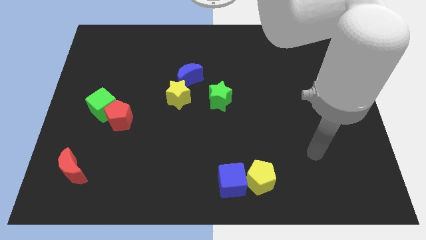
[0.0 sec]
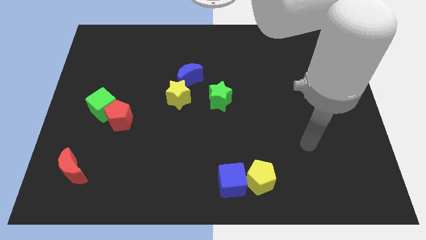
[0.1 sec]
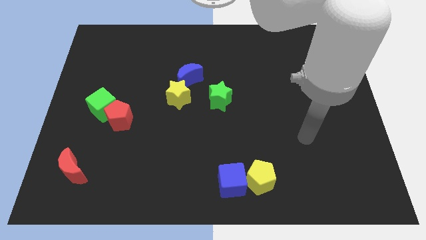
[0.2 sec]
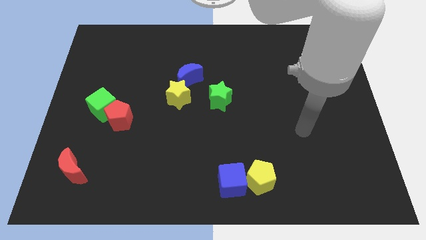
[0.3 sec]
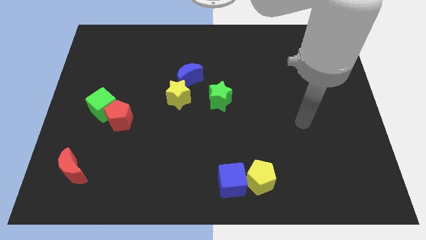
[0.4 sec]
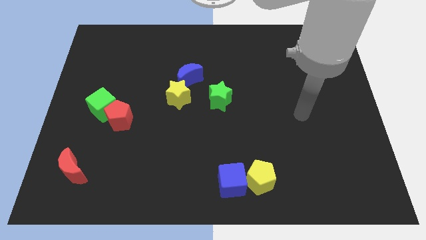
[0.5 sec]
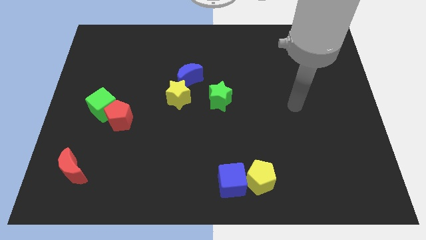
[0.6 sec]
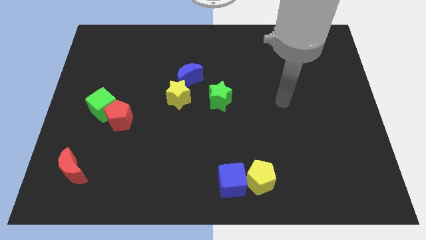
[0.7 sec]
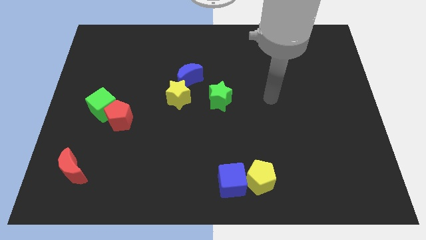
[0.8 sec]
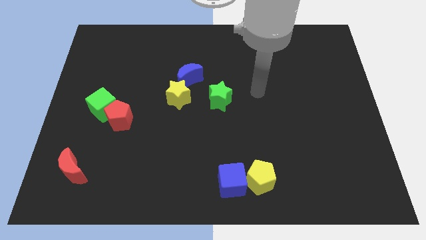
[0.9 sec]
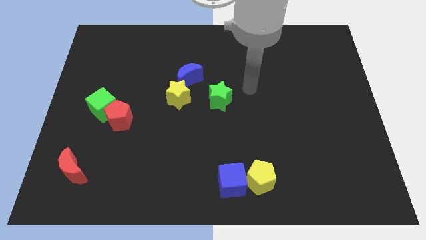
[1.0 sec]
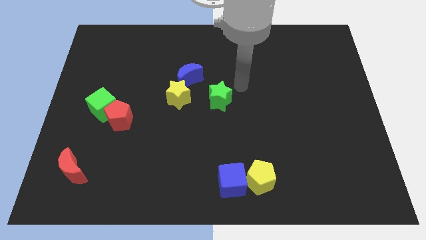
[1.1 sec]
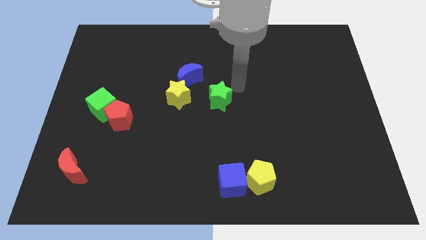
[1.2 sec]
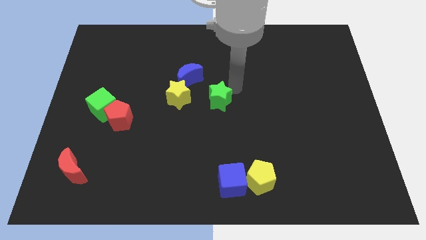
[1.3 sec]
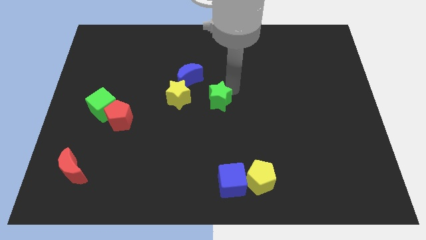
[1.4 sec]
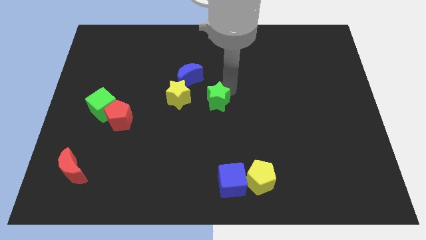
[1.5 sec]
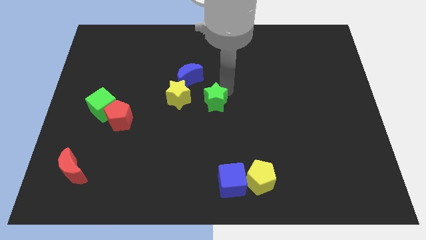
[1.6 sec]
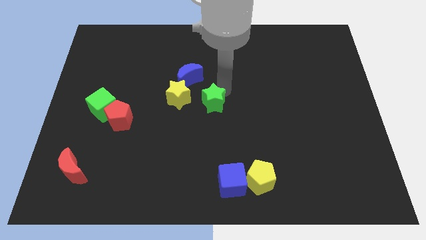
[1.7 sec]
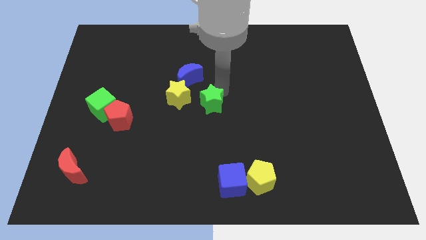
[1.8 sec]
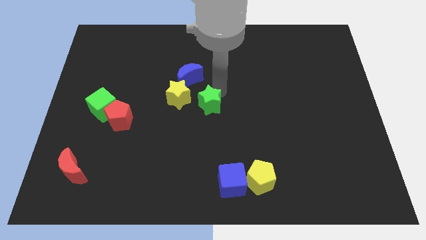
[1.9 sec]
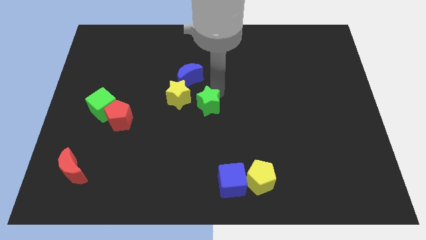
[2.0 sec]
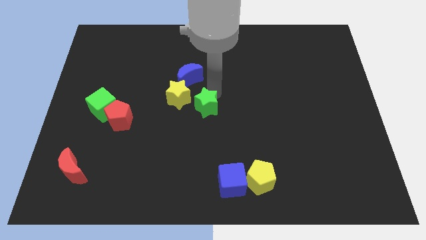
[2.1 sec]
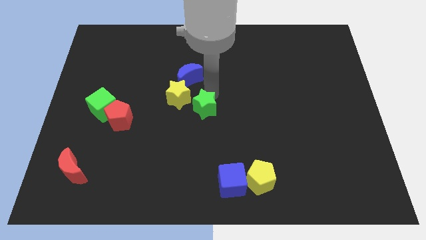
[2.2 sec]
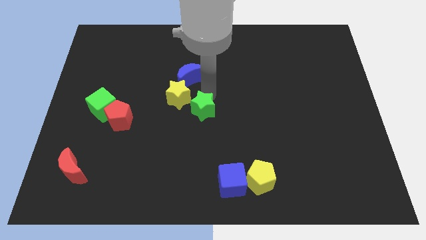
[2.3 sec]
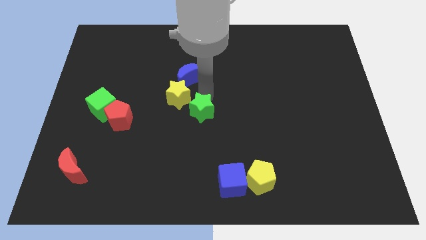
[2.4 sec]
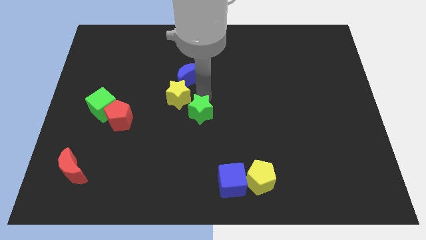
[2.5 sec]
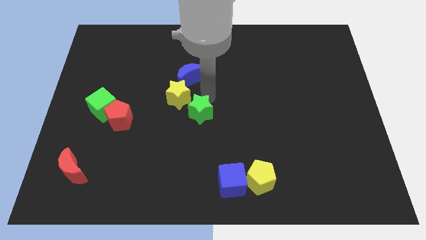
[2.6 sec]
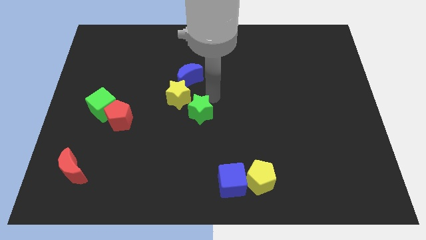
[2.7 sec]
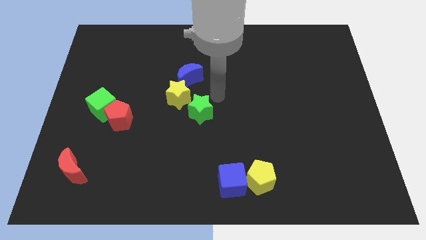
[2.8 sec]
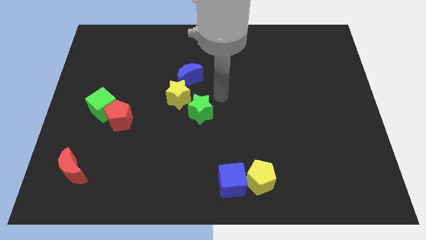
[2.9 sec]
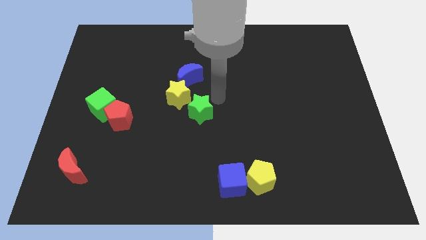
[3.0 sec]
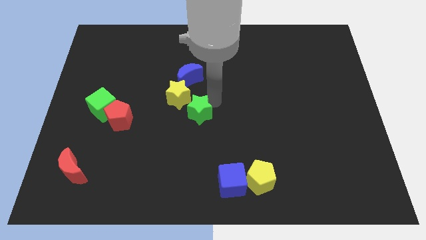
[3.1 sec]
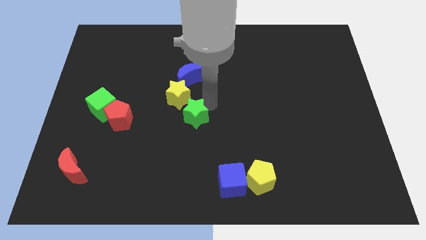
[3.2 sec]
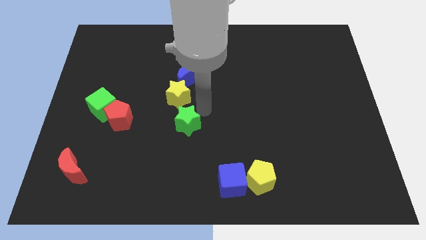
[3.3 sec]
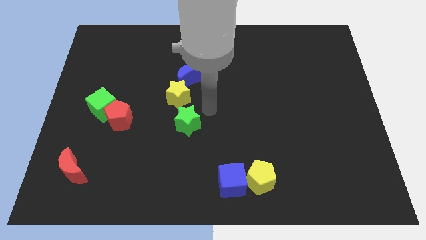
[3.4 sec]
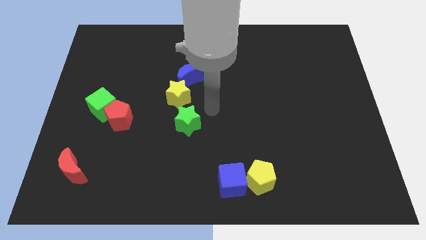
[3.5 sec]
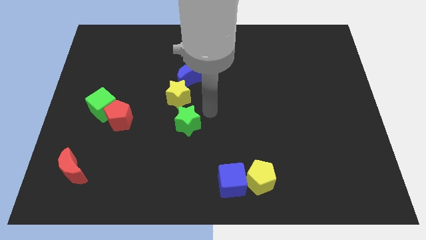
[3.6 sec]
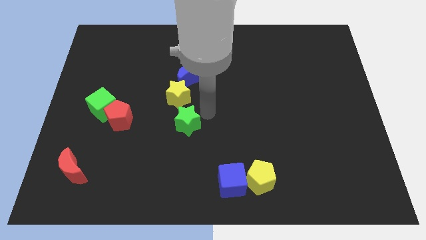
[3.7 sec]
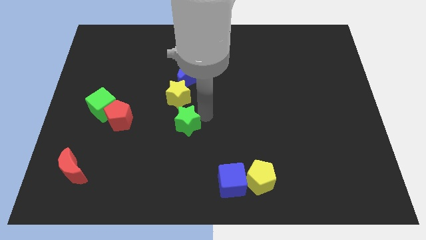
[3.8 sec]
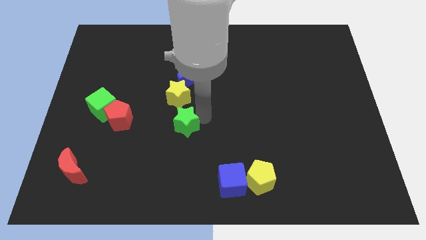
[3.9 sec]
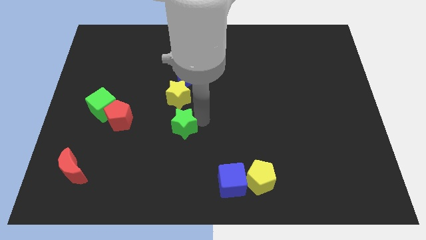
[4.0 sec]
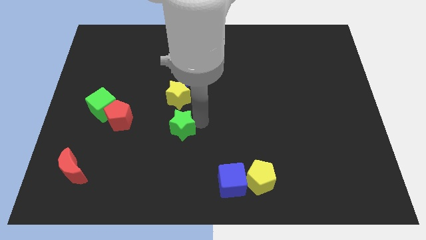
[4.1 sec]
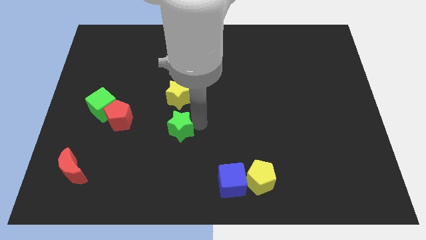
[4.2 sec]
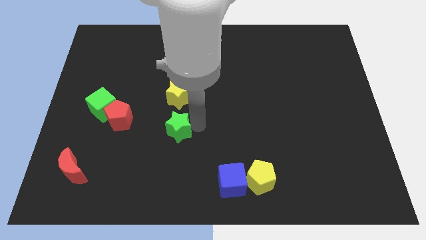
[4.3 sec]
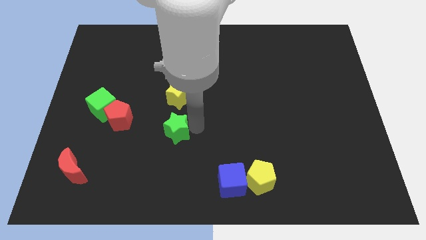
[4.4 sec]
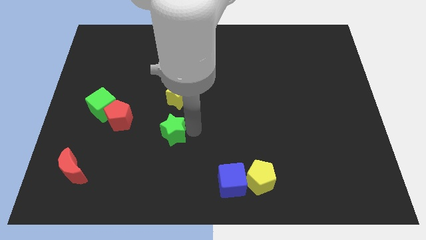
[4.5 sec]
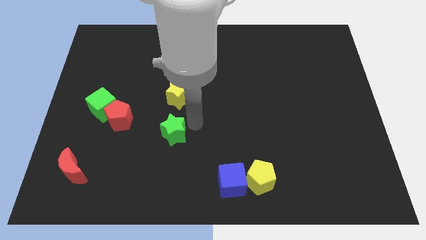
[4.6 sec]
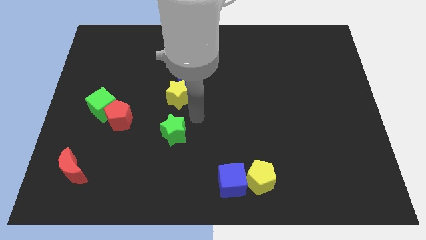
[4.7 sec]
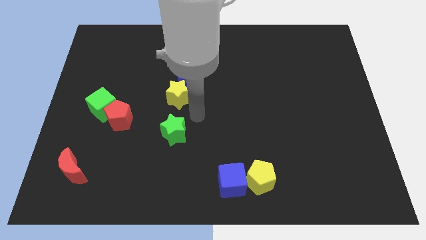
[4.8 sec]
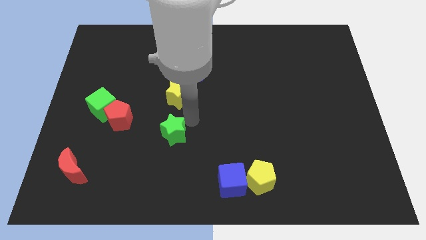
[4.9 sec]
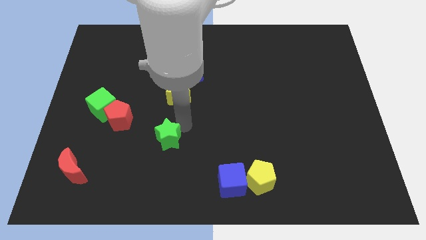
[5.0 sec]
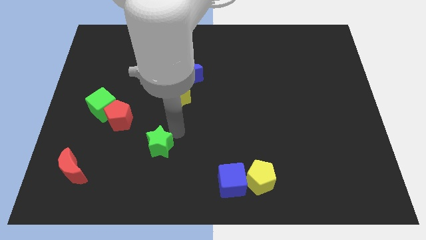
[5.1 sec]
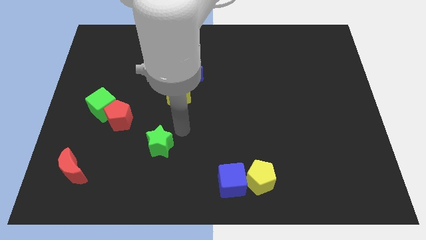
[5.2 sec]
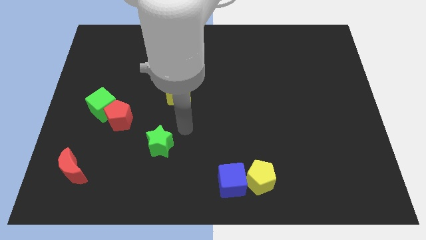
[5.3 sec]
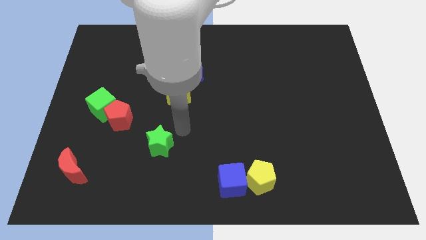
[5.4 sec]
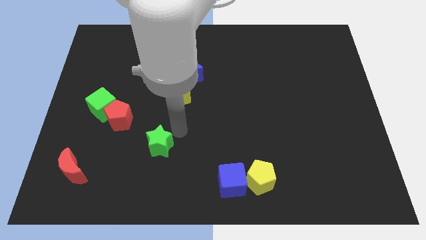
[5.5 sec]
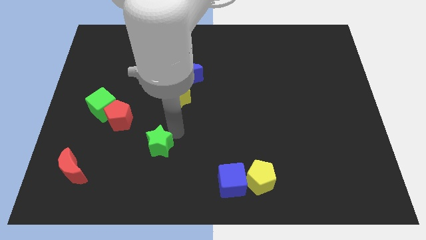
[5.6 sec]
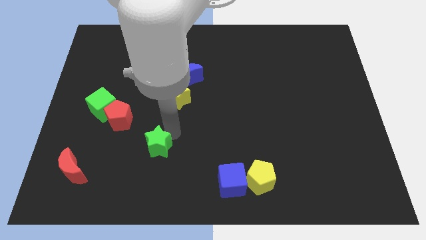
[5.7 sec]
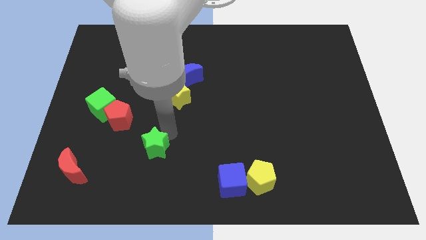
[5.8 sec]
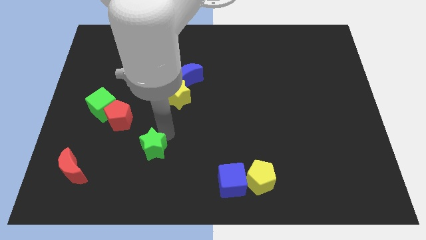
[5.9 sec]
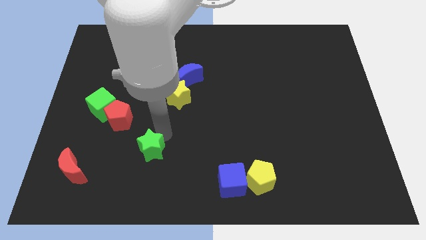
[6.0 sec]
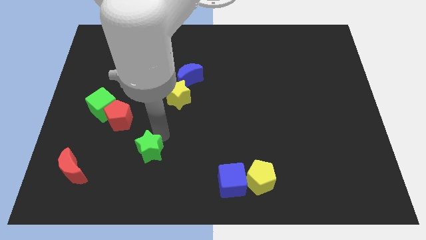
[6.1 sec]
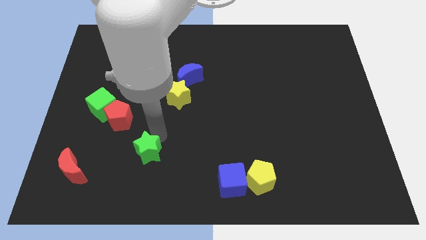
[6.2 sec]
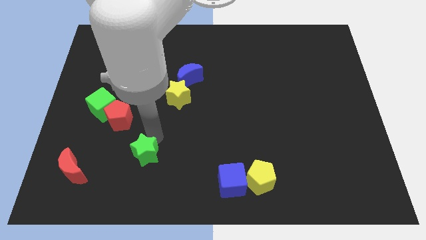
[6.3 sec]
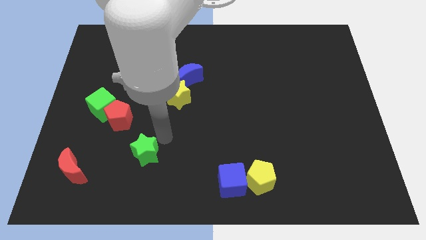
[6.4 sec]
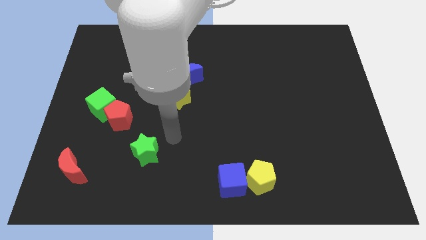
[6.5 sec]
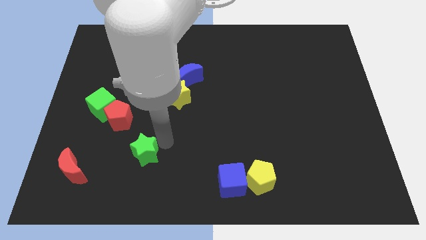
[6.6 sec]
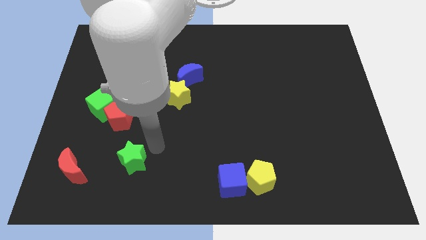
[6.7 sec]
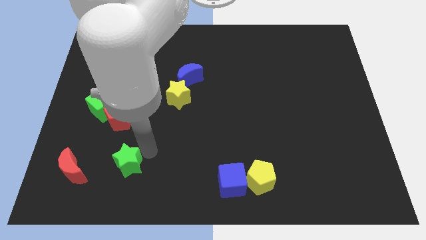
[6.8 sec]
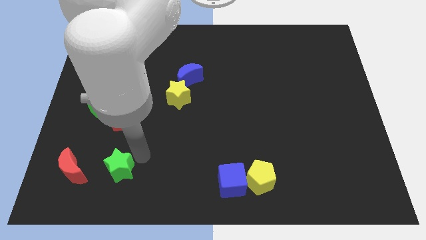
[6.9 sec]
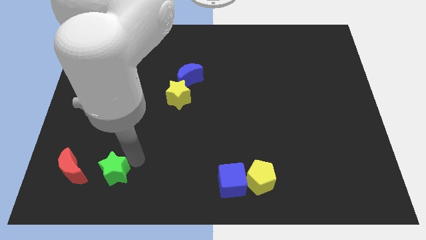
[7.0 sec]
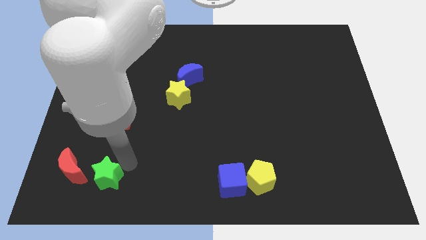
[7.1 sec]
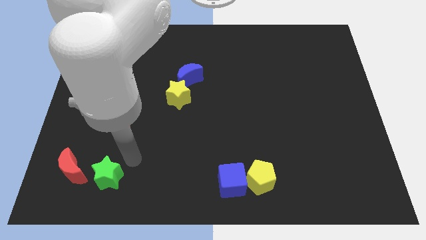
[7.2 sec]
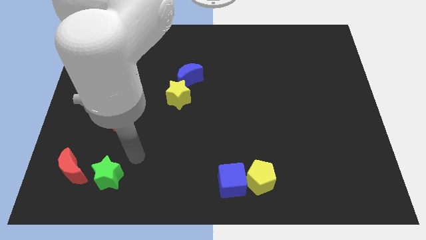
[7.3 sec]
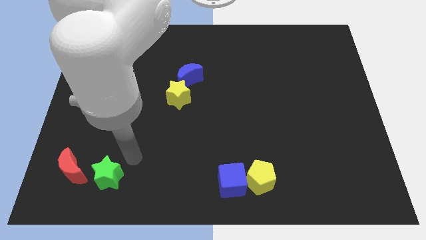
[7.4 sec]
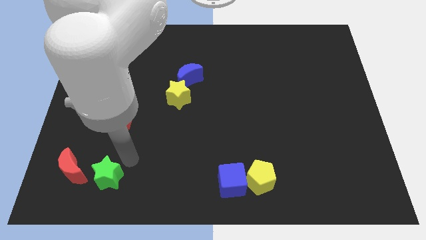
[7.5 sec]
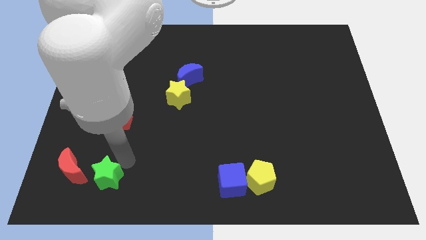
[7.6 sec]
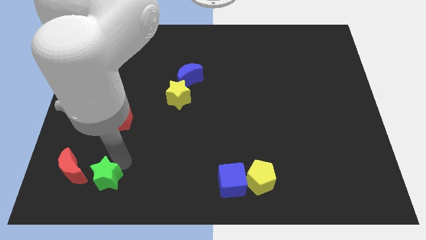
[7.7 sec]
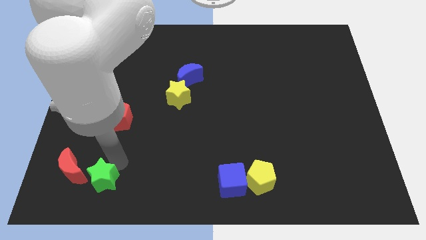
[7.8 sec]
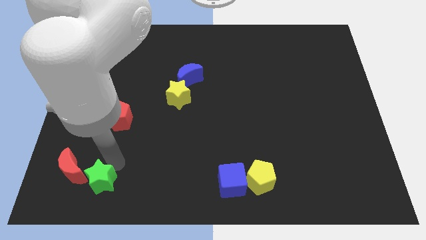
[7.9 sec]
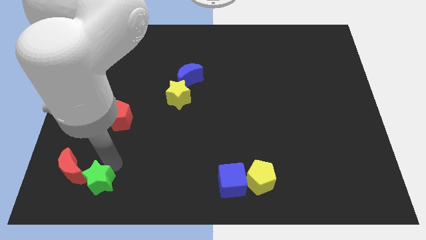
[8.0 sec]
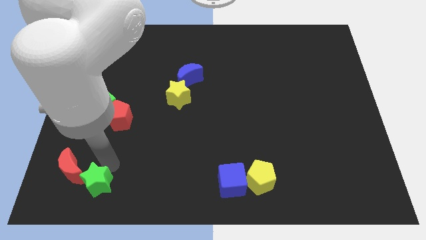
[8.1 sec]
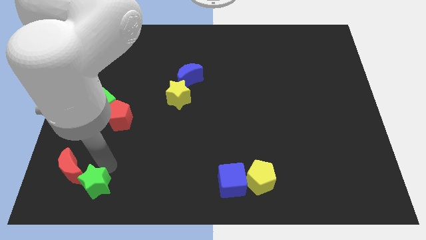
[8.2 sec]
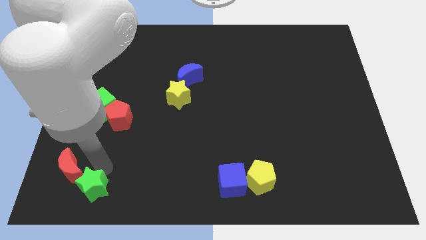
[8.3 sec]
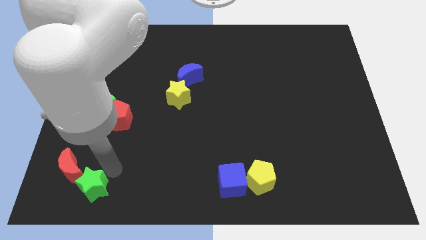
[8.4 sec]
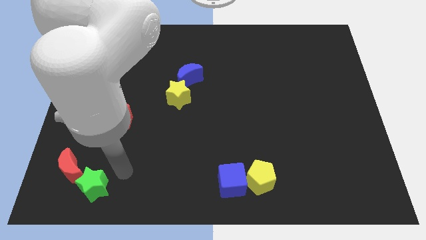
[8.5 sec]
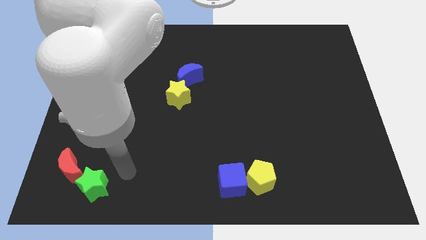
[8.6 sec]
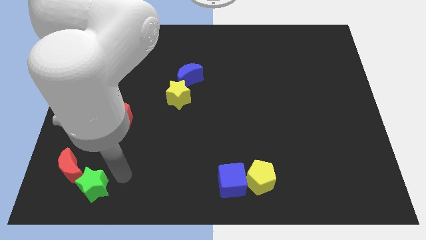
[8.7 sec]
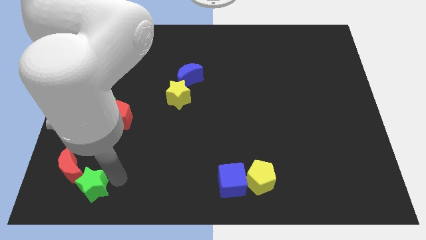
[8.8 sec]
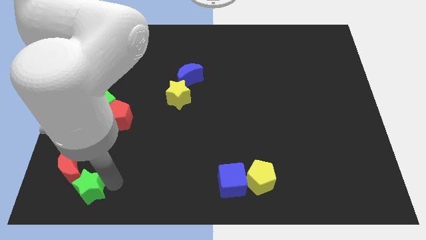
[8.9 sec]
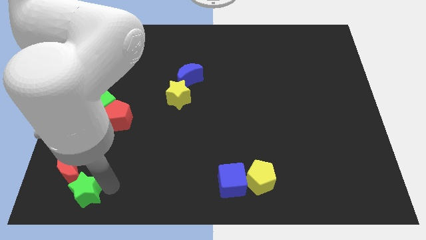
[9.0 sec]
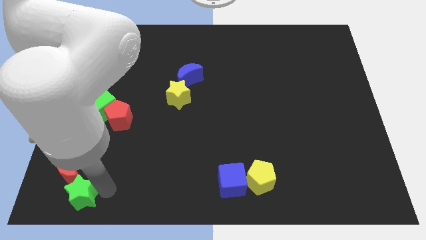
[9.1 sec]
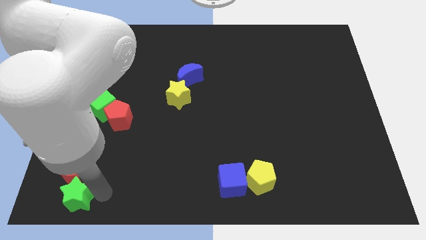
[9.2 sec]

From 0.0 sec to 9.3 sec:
move the green star to the bottom left of the board
